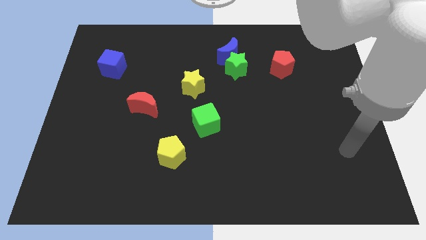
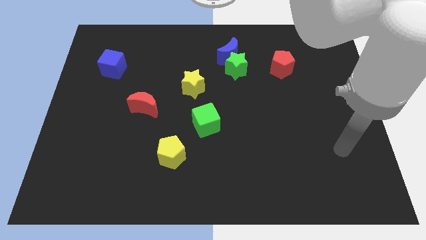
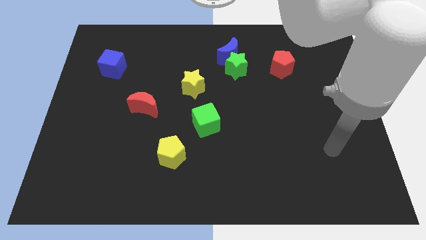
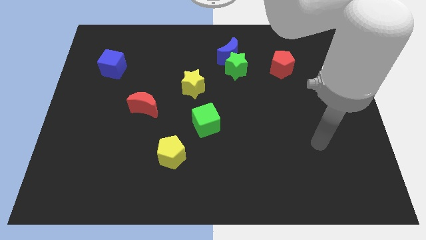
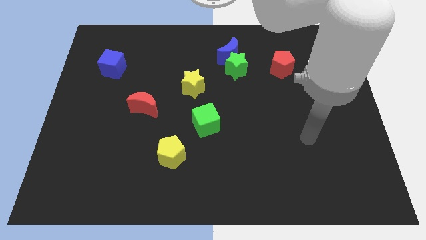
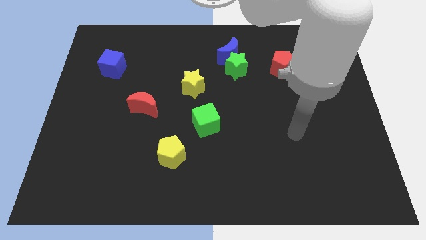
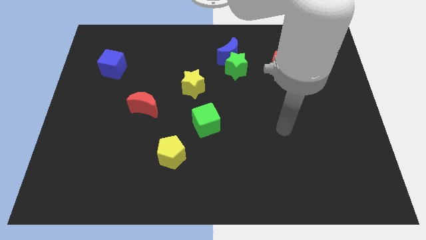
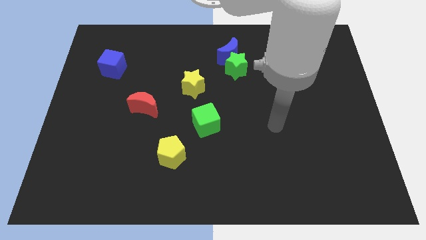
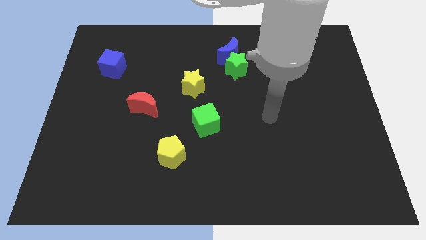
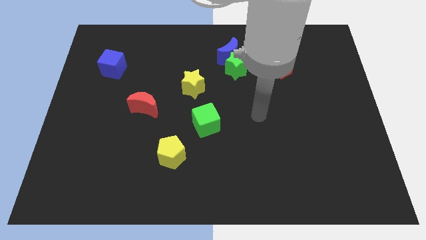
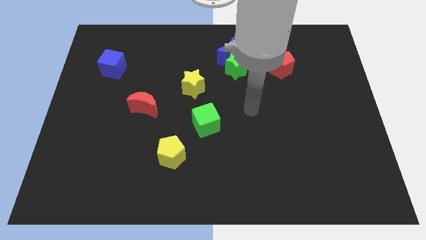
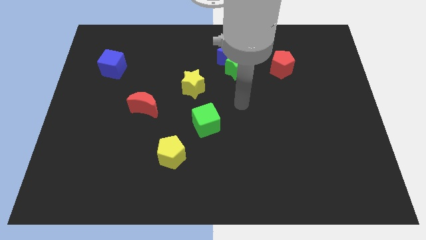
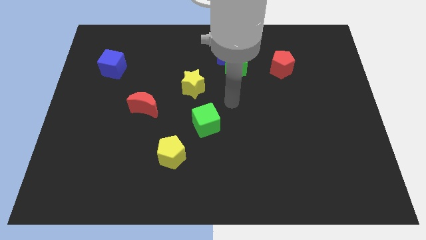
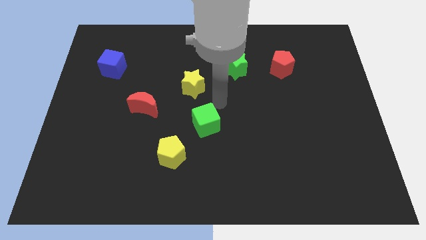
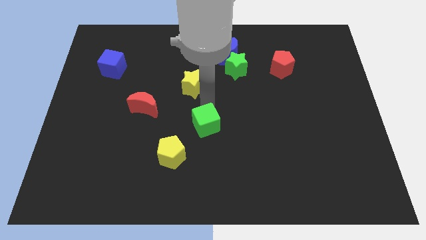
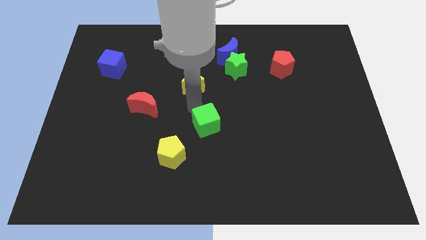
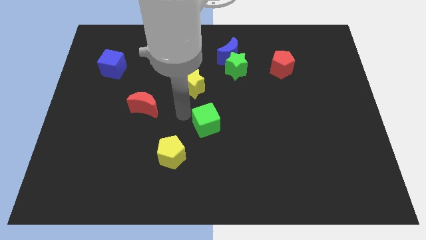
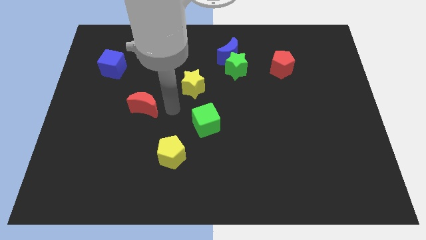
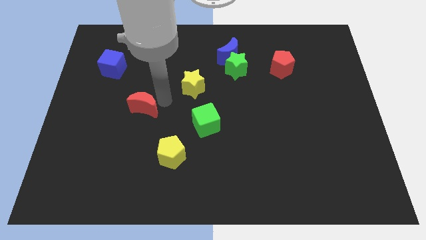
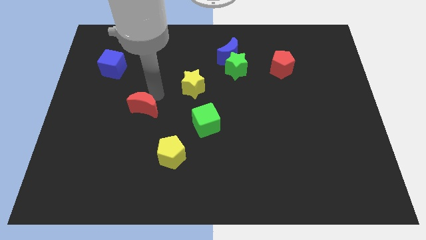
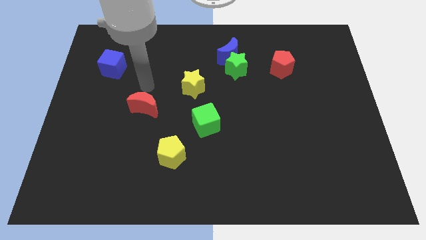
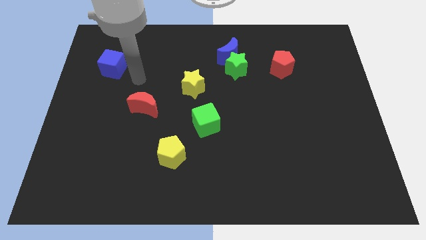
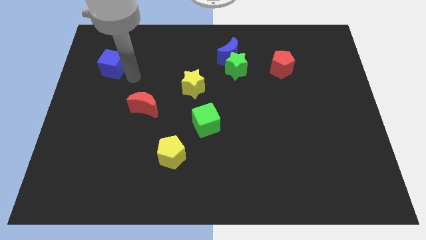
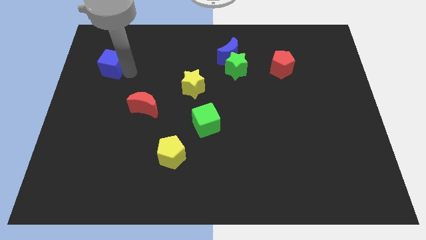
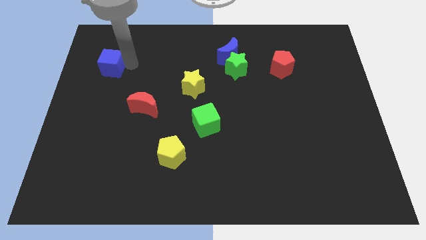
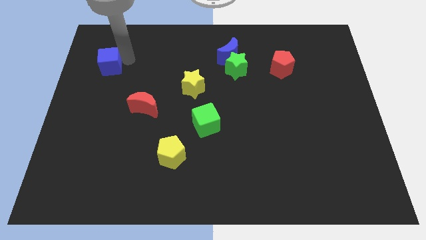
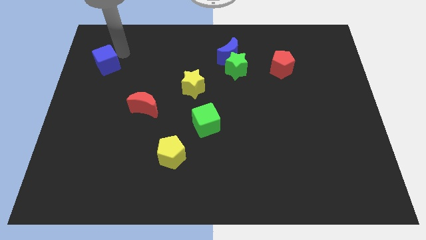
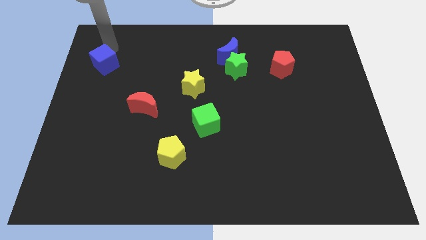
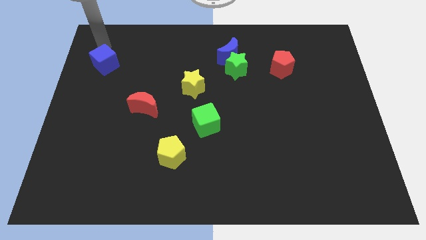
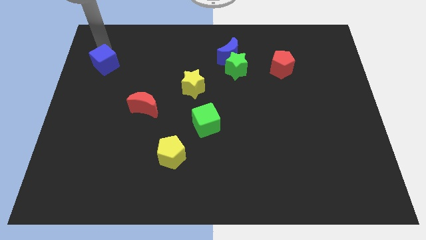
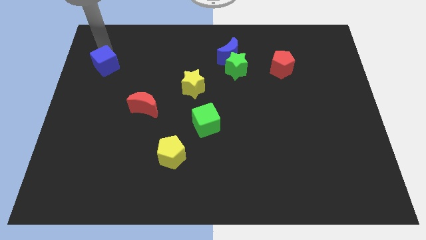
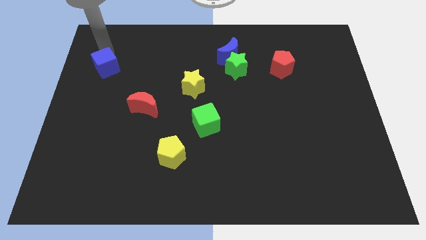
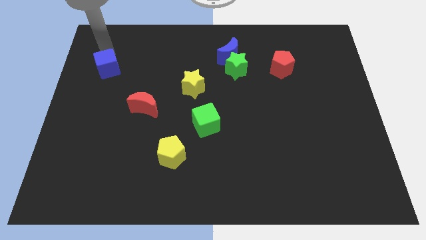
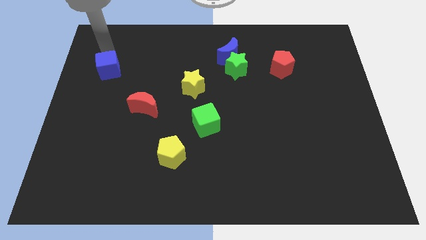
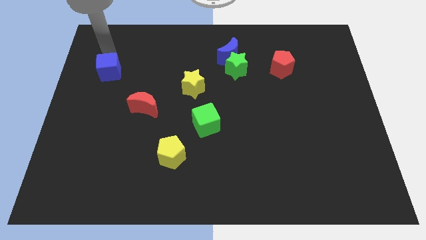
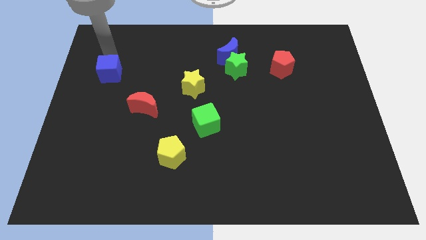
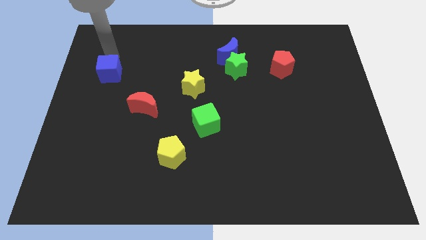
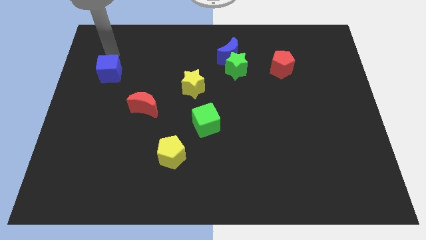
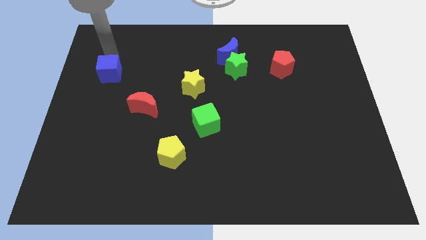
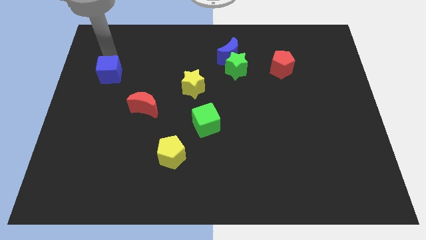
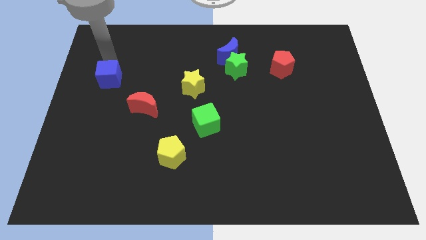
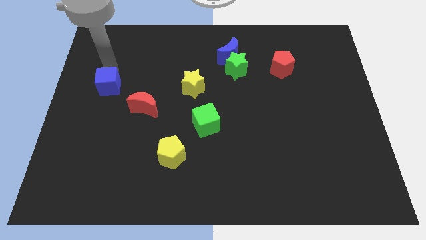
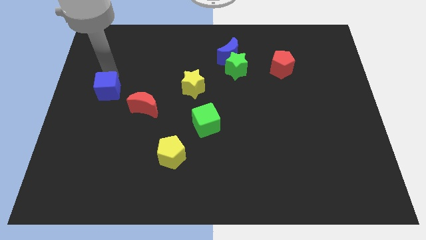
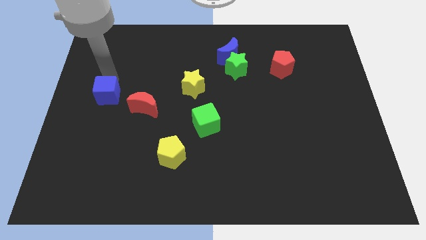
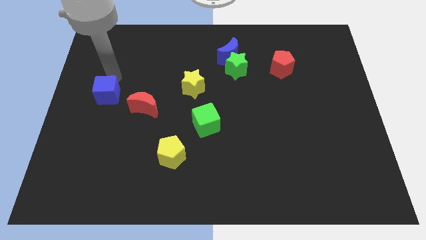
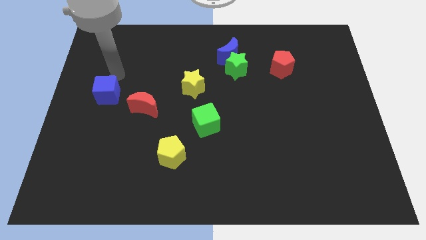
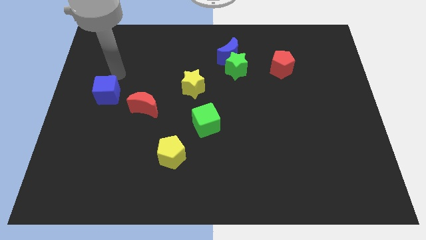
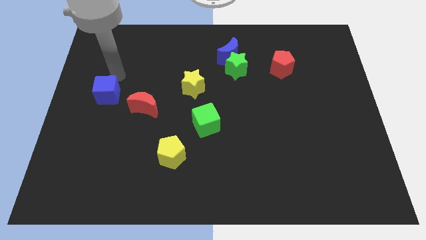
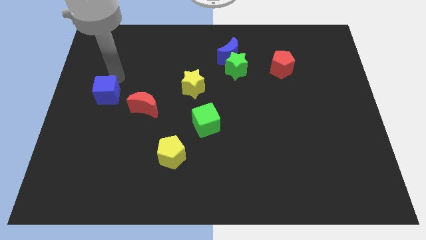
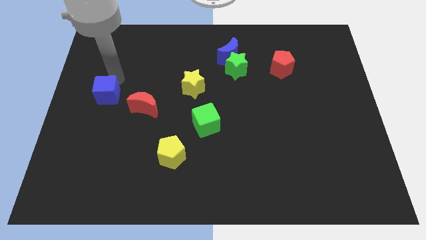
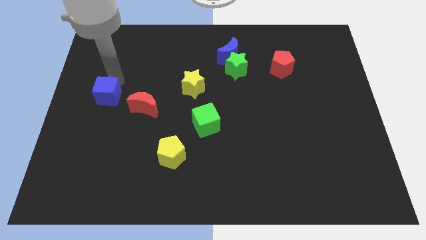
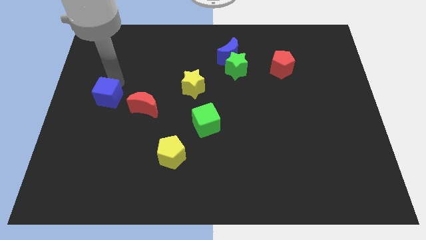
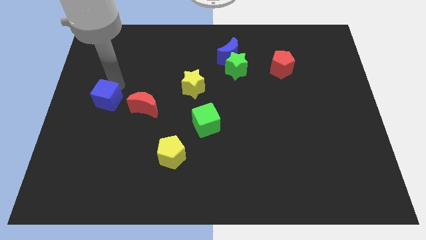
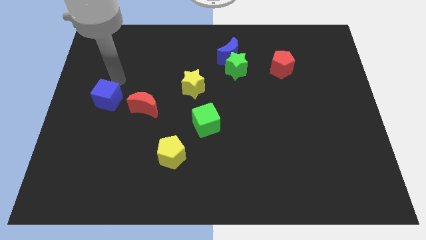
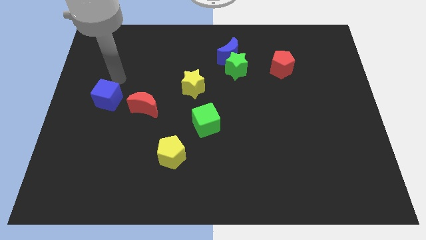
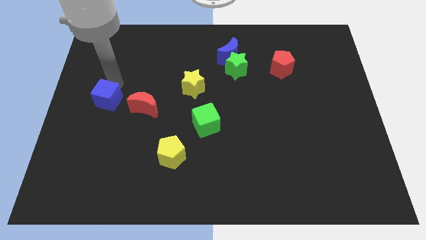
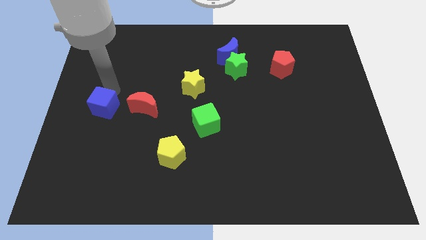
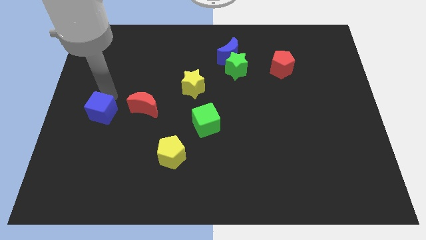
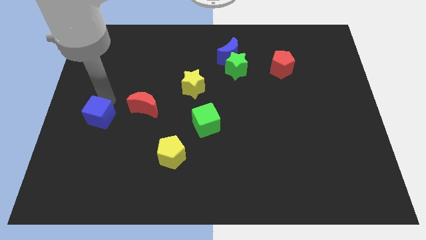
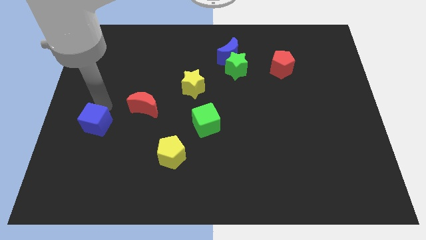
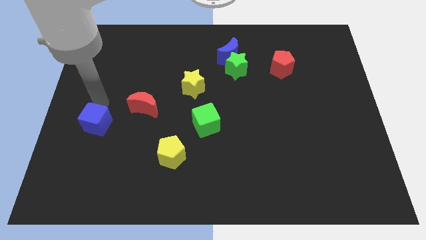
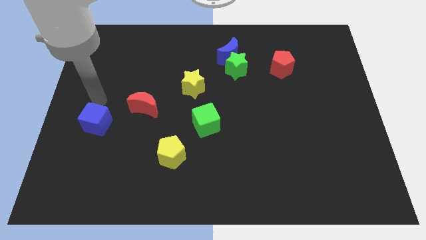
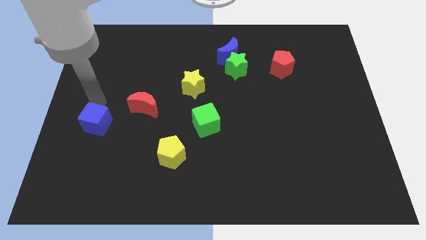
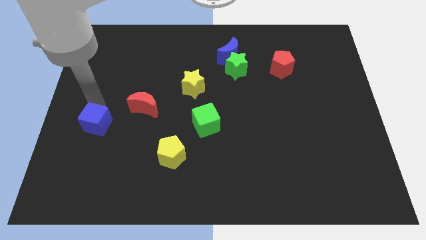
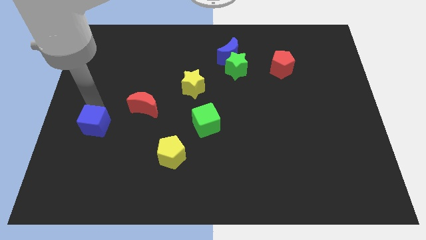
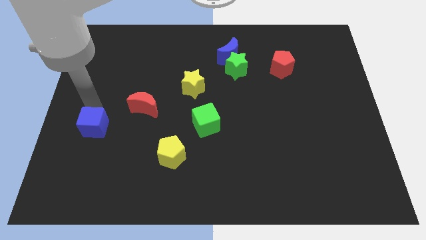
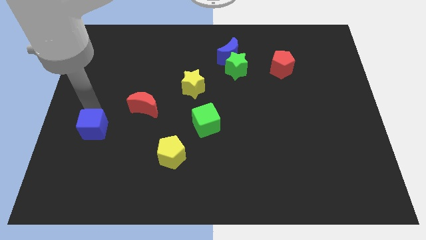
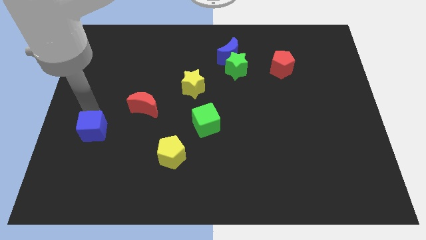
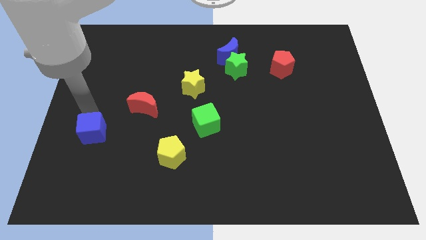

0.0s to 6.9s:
move the blue cube downwards

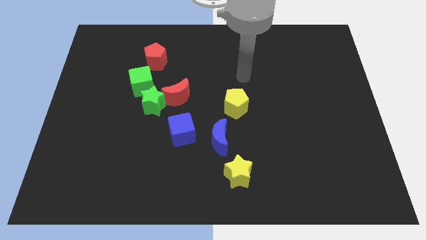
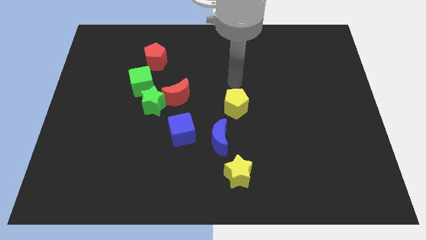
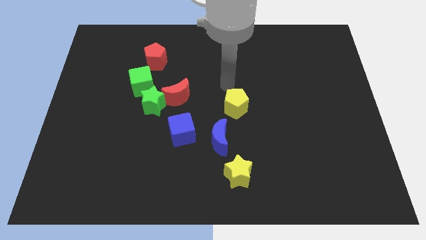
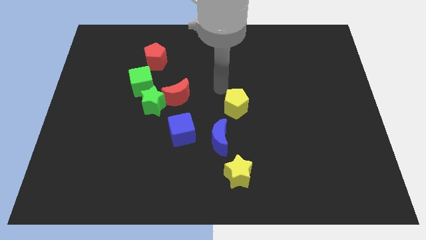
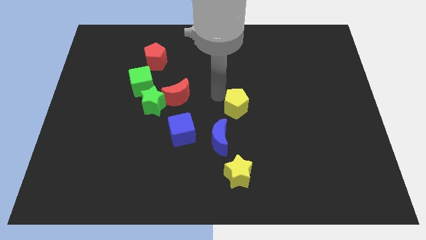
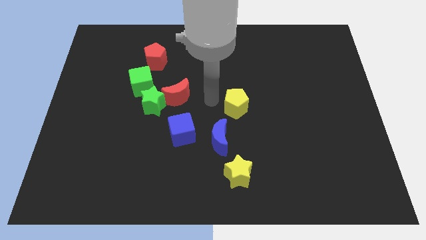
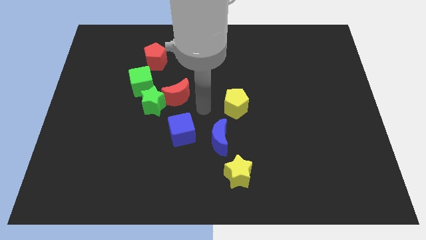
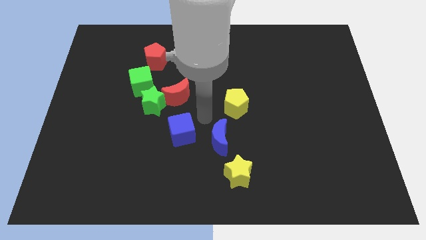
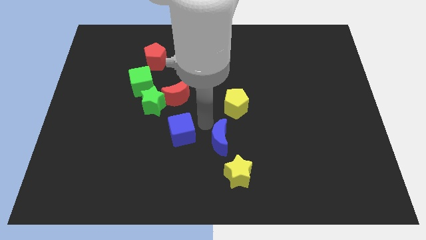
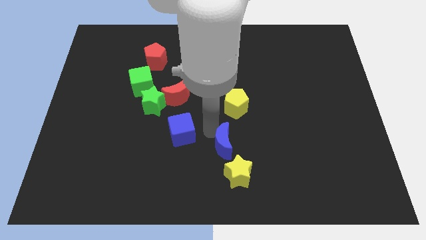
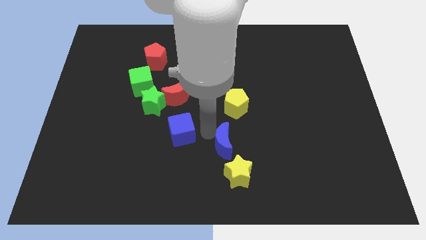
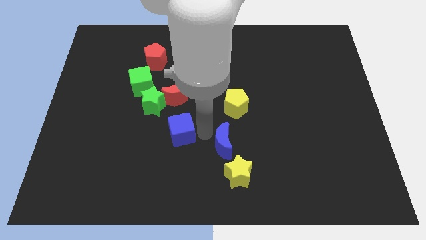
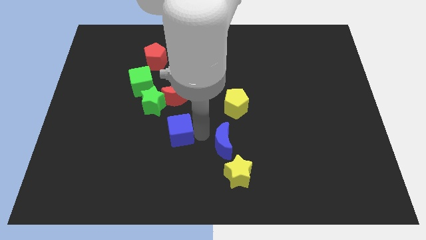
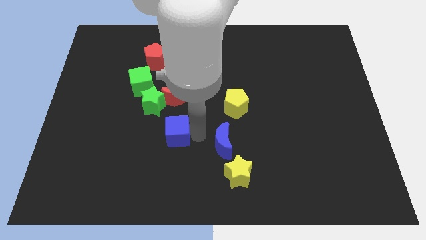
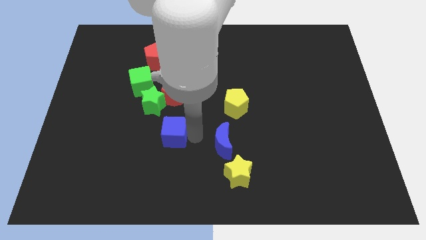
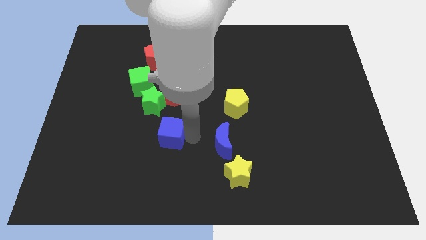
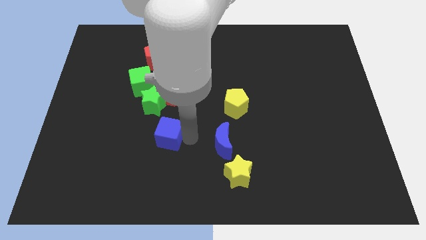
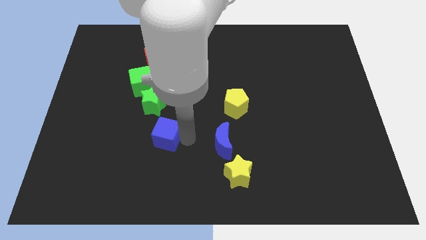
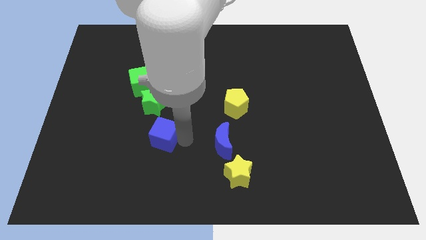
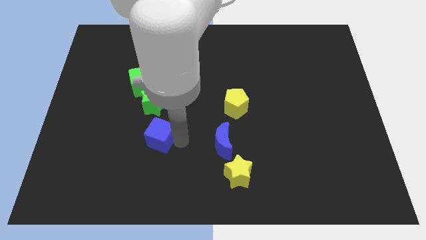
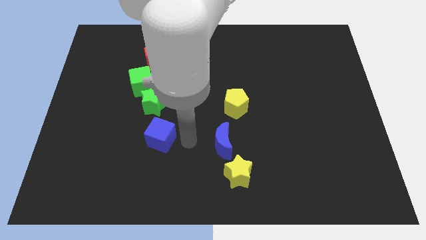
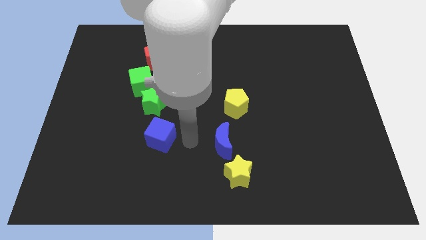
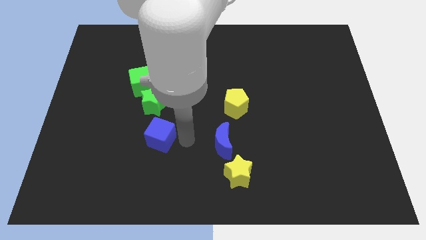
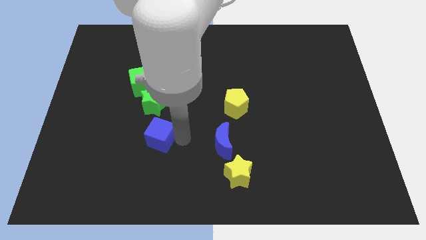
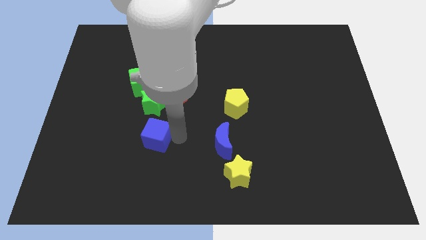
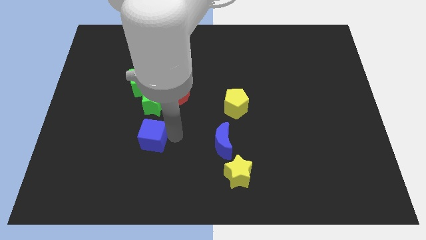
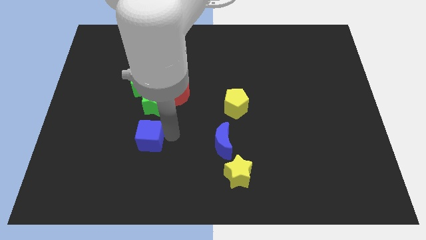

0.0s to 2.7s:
push the blue cube left slightly
